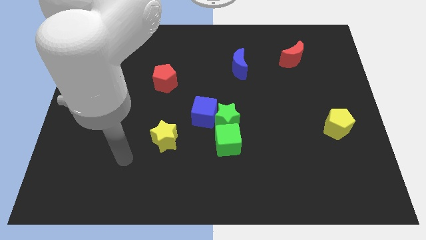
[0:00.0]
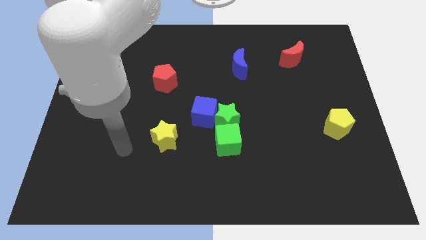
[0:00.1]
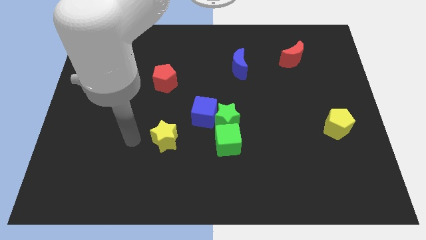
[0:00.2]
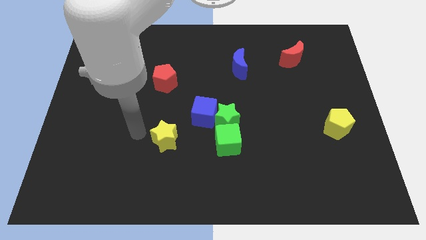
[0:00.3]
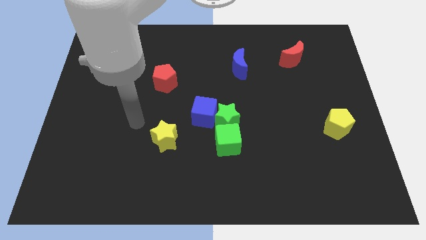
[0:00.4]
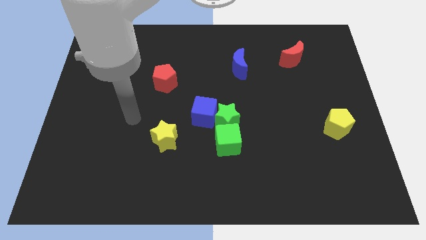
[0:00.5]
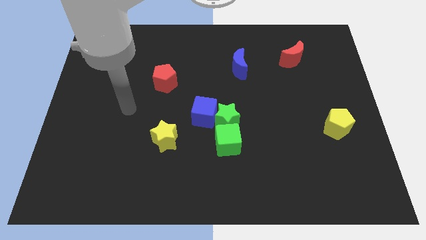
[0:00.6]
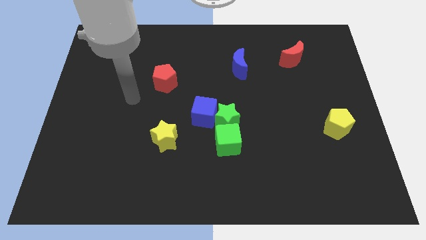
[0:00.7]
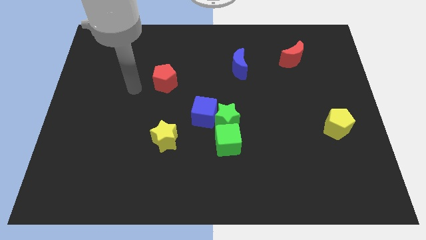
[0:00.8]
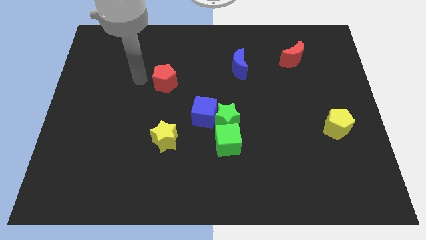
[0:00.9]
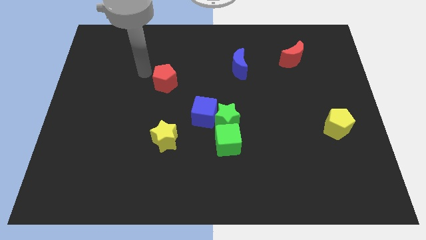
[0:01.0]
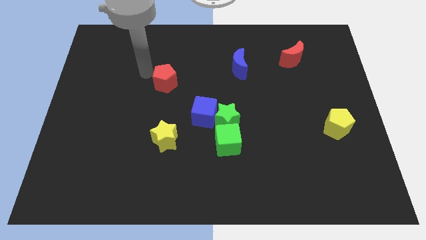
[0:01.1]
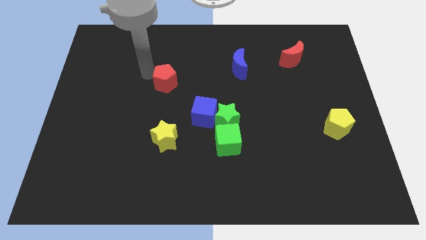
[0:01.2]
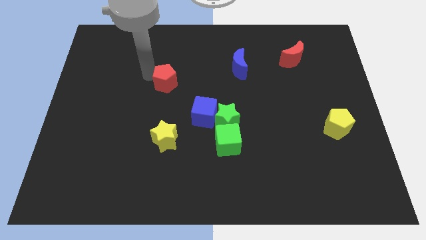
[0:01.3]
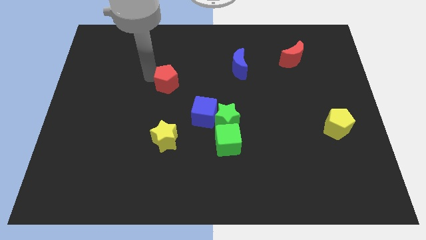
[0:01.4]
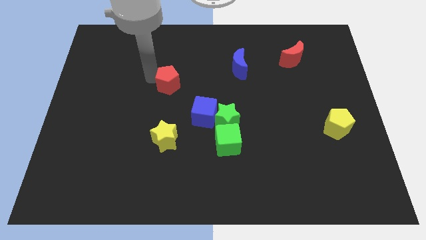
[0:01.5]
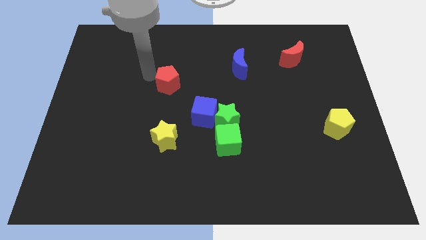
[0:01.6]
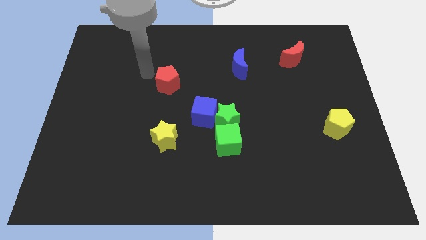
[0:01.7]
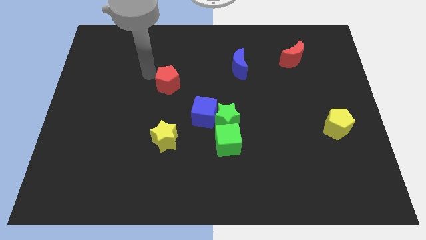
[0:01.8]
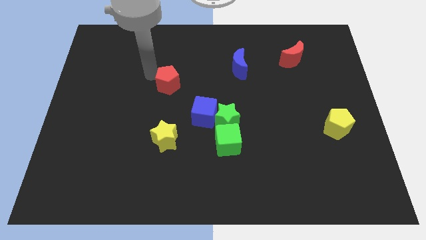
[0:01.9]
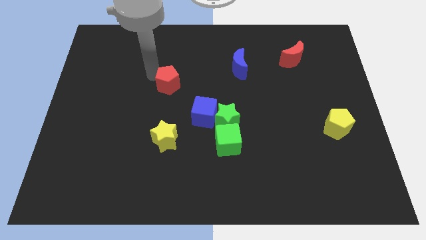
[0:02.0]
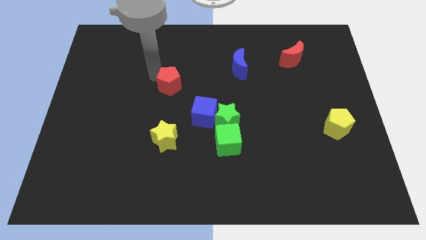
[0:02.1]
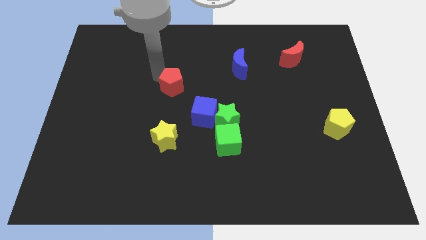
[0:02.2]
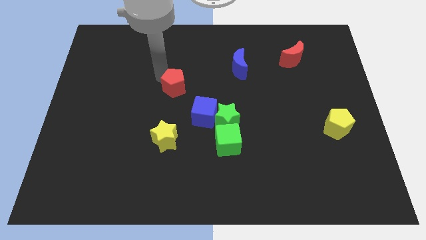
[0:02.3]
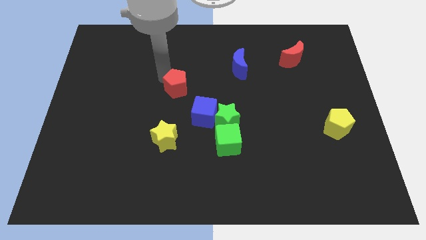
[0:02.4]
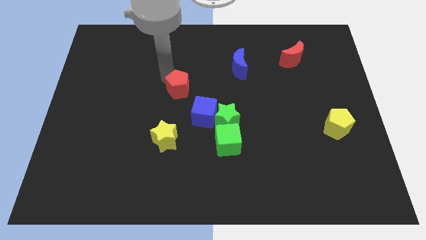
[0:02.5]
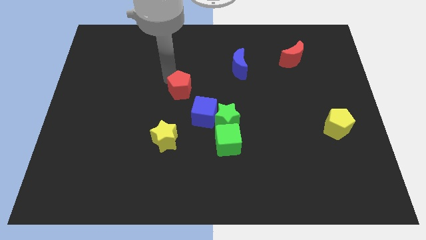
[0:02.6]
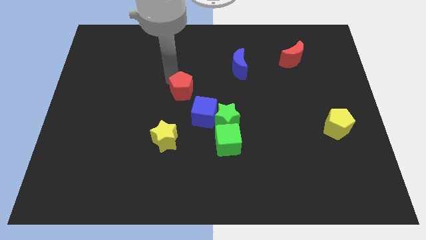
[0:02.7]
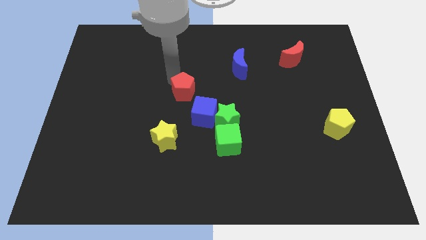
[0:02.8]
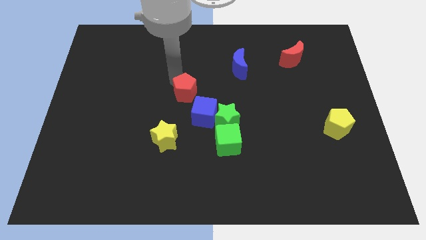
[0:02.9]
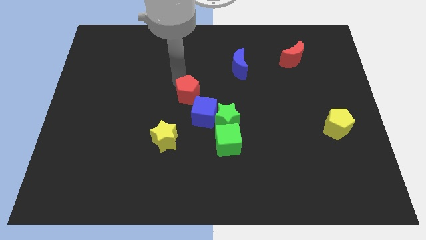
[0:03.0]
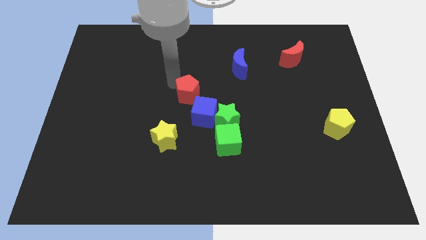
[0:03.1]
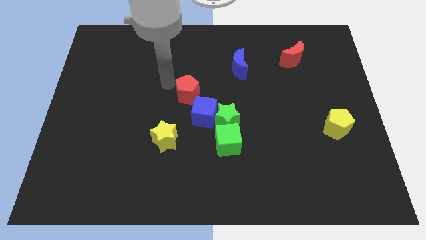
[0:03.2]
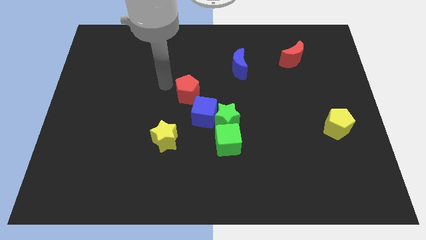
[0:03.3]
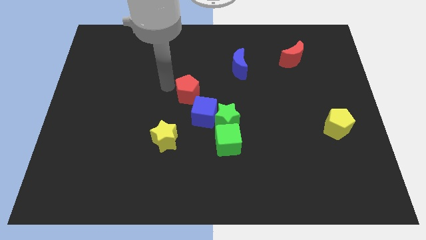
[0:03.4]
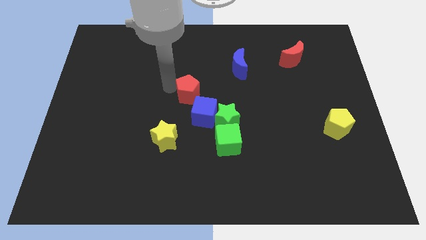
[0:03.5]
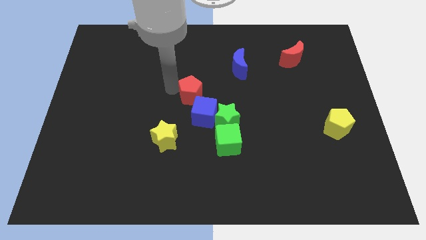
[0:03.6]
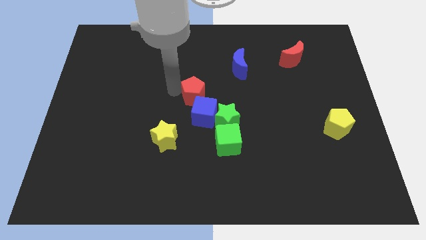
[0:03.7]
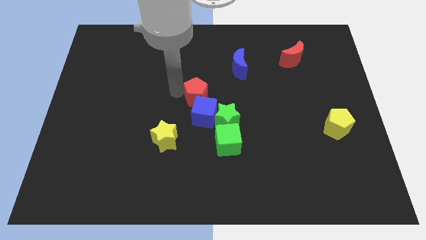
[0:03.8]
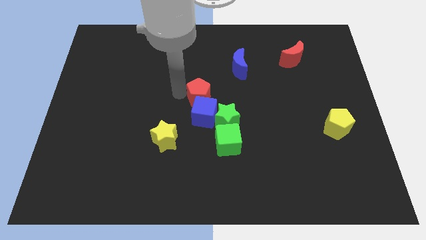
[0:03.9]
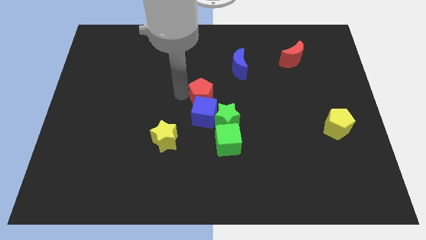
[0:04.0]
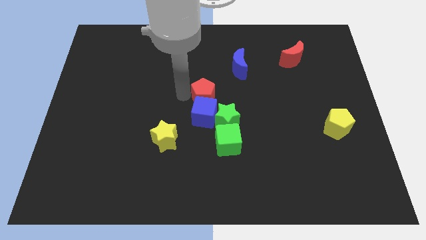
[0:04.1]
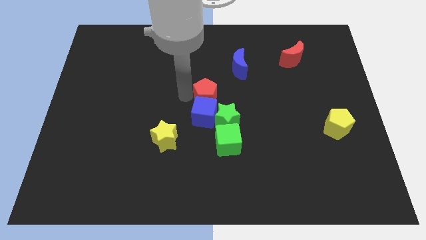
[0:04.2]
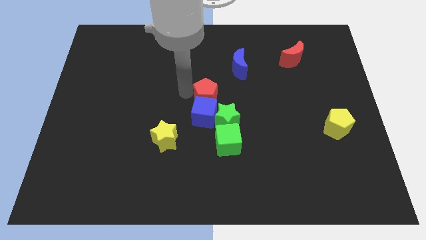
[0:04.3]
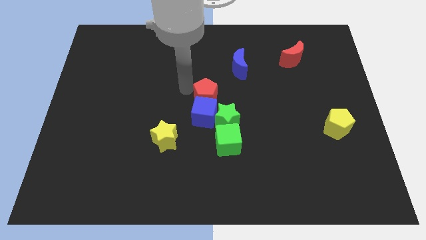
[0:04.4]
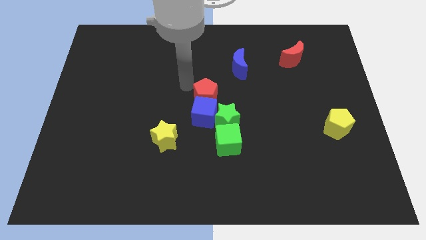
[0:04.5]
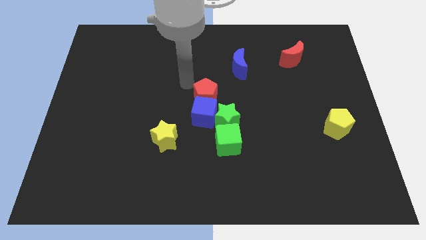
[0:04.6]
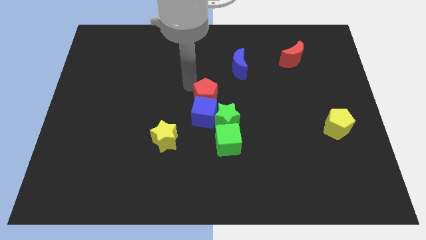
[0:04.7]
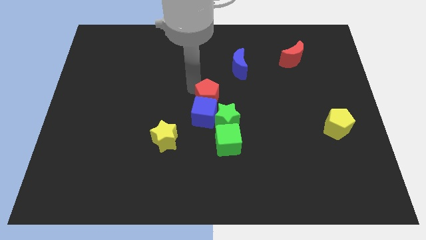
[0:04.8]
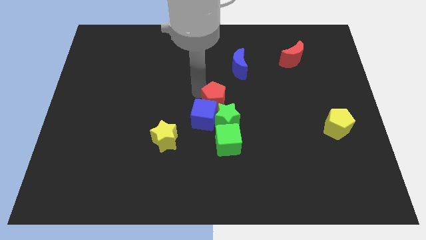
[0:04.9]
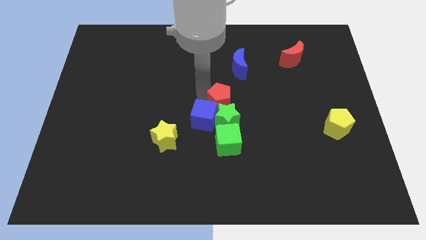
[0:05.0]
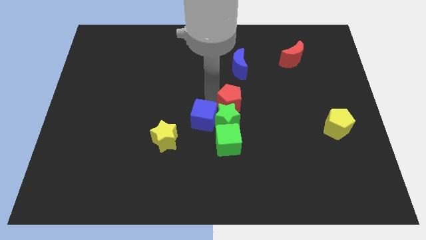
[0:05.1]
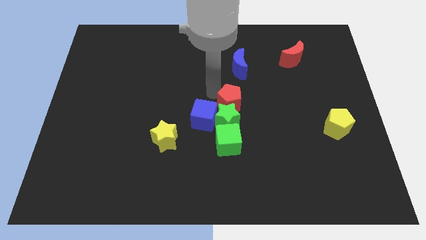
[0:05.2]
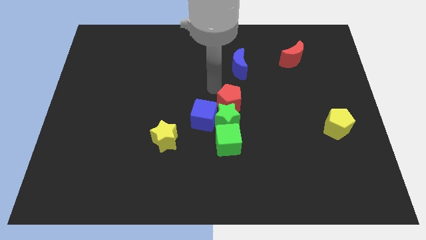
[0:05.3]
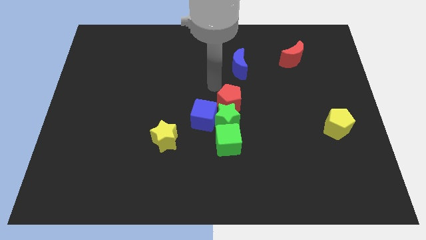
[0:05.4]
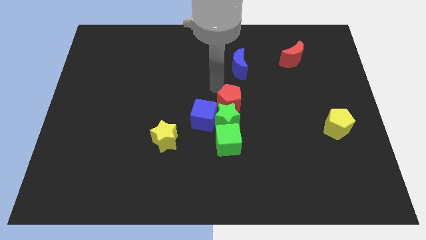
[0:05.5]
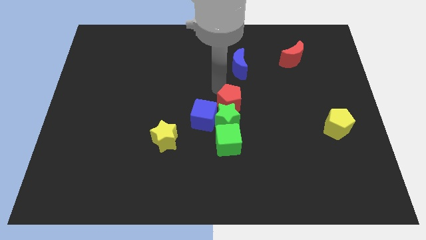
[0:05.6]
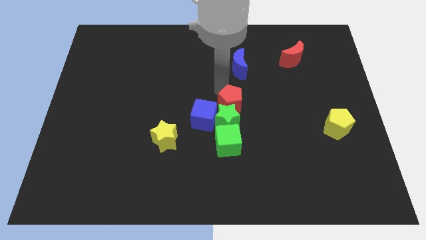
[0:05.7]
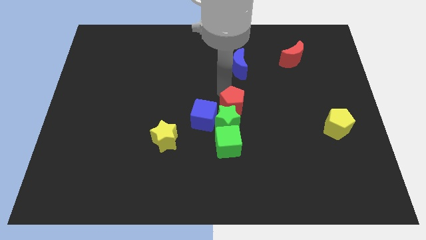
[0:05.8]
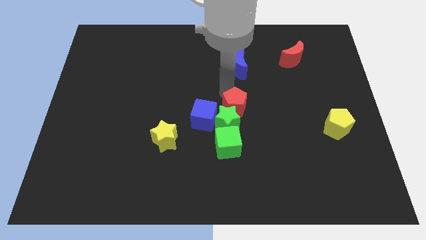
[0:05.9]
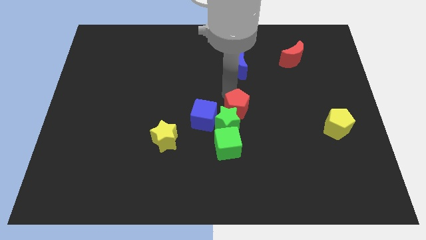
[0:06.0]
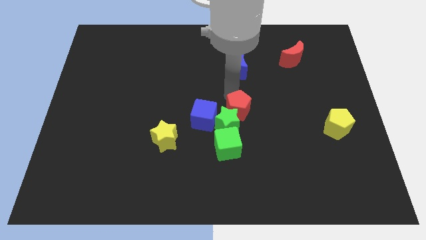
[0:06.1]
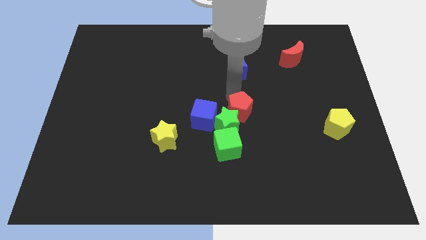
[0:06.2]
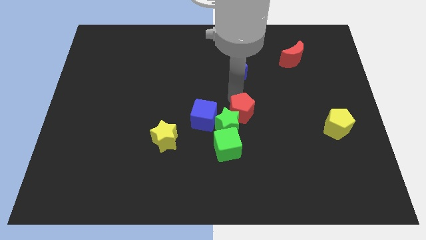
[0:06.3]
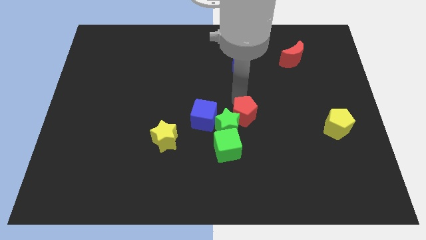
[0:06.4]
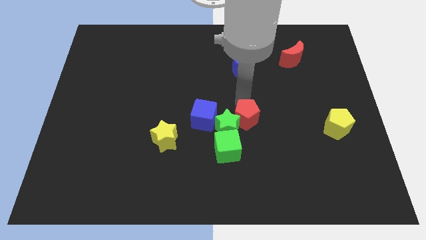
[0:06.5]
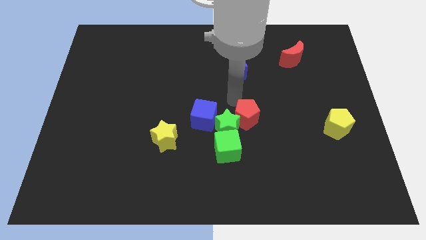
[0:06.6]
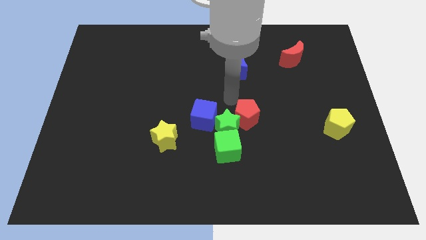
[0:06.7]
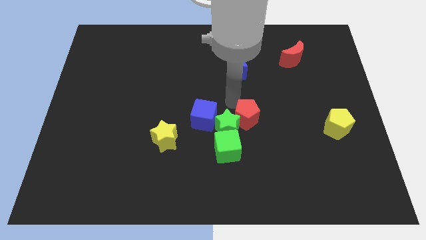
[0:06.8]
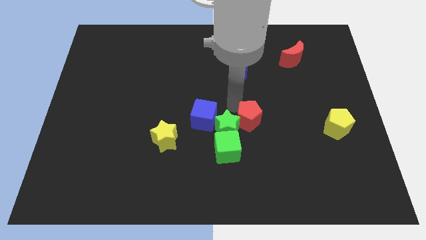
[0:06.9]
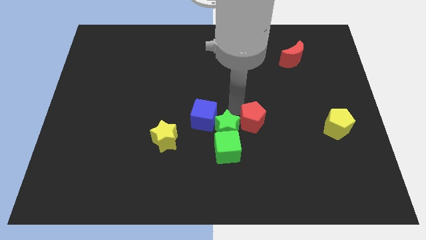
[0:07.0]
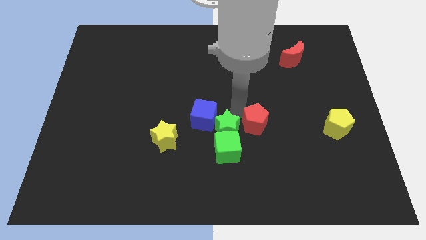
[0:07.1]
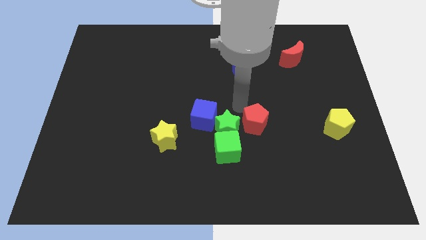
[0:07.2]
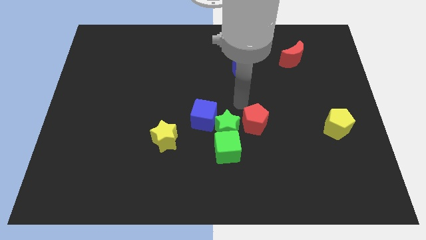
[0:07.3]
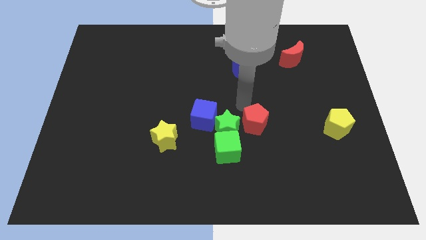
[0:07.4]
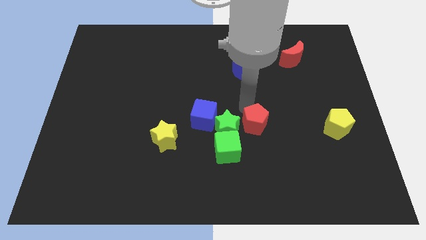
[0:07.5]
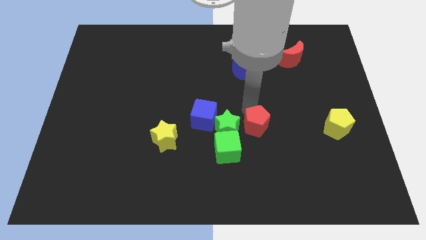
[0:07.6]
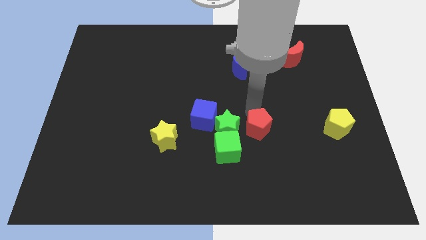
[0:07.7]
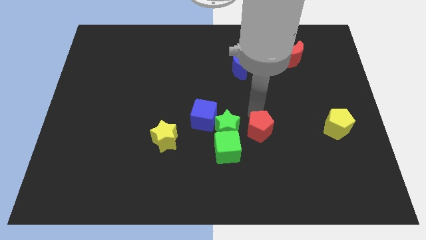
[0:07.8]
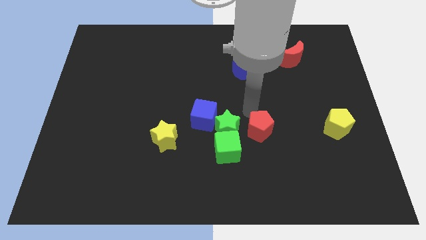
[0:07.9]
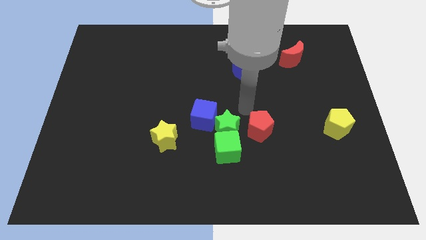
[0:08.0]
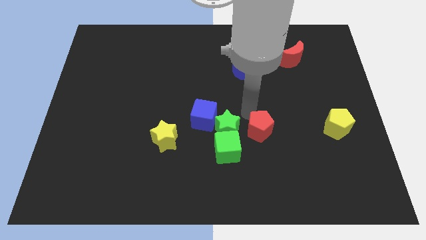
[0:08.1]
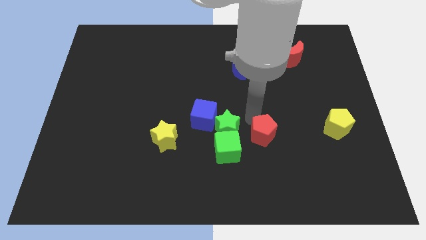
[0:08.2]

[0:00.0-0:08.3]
move the red pentagon right of the green cube
